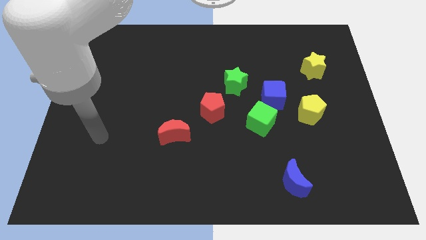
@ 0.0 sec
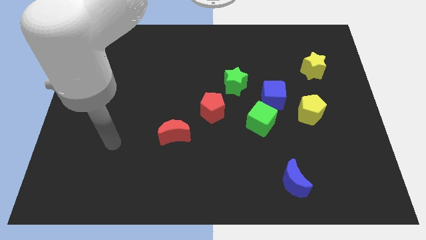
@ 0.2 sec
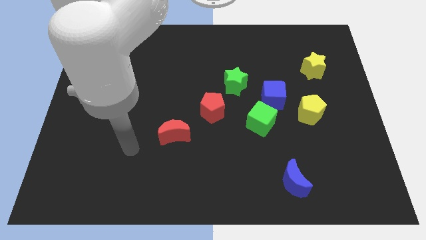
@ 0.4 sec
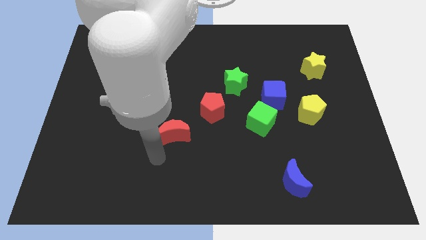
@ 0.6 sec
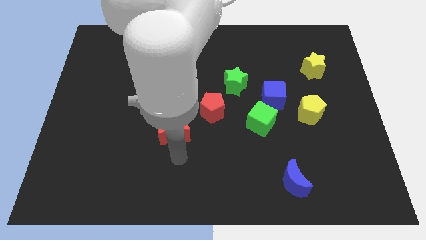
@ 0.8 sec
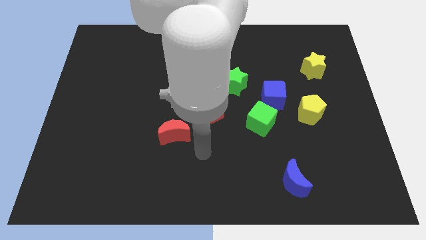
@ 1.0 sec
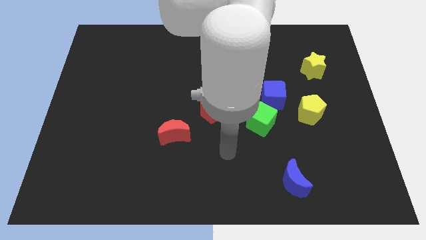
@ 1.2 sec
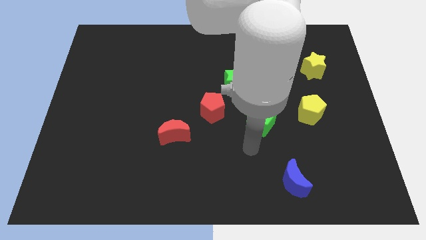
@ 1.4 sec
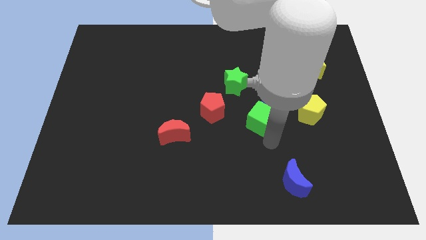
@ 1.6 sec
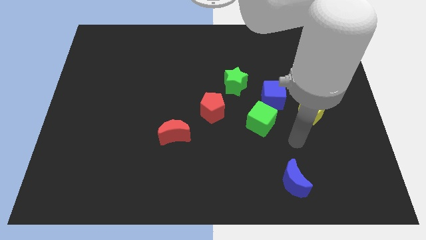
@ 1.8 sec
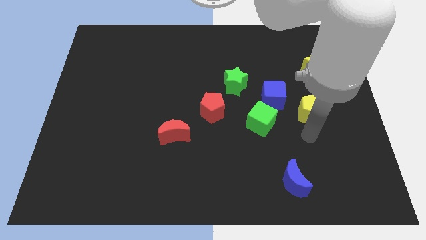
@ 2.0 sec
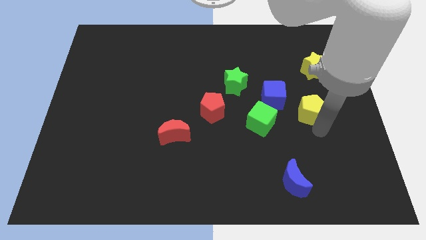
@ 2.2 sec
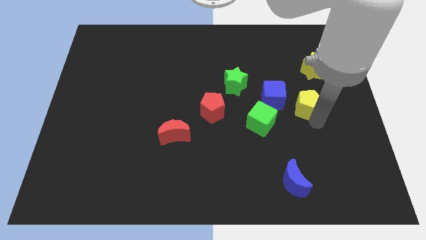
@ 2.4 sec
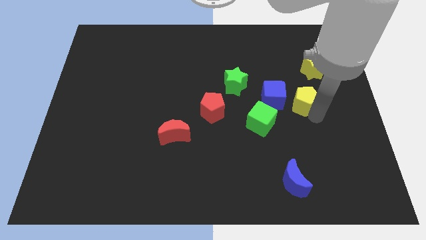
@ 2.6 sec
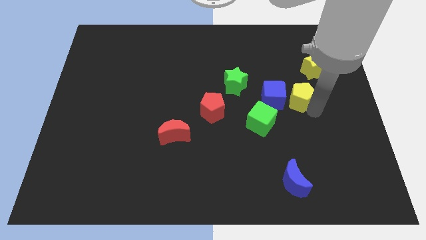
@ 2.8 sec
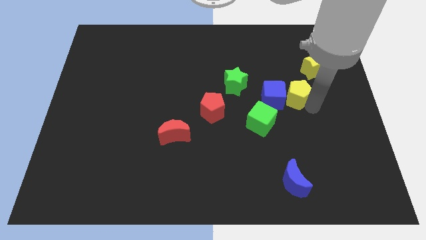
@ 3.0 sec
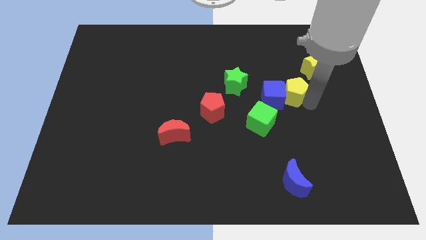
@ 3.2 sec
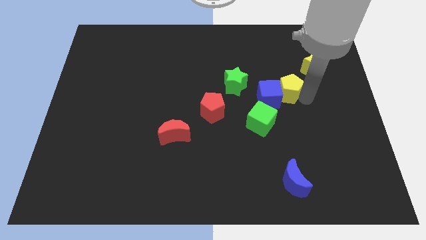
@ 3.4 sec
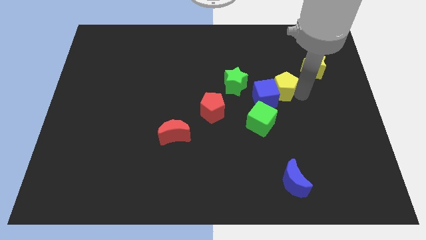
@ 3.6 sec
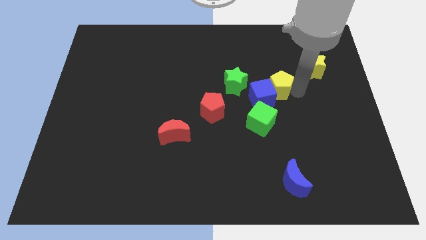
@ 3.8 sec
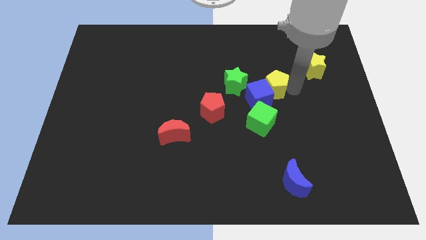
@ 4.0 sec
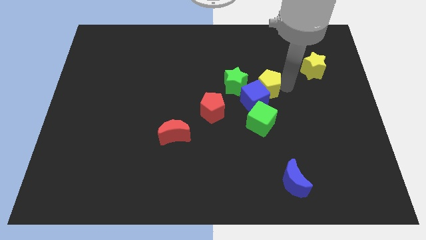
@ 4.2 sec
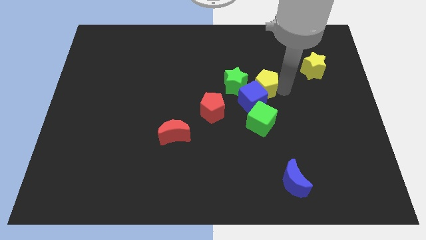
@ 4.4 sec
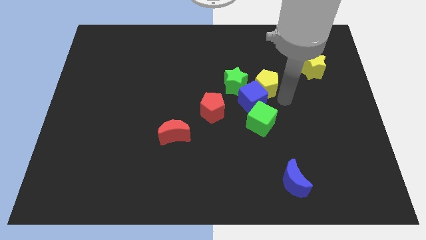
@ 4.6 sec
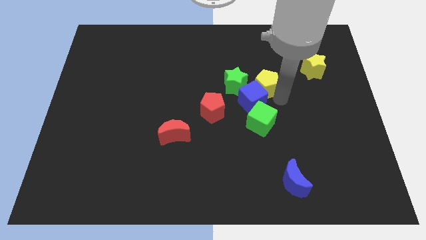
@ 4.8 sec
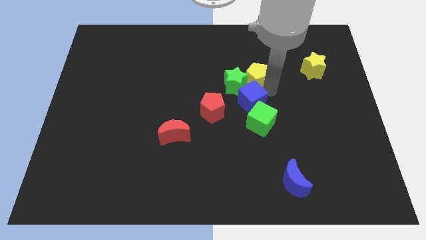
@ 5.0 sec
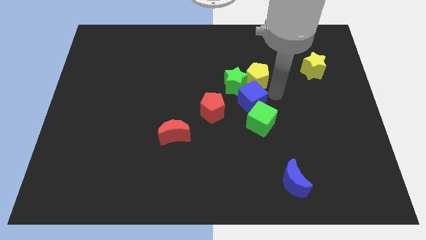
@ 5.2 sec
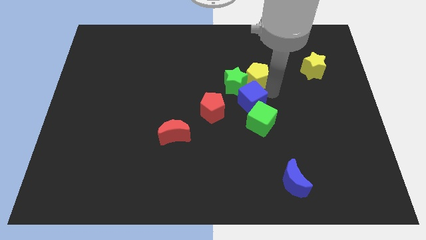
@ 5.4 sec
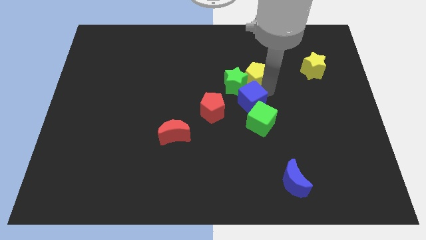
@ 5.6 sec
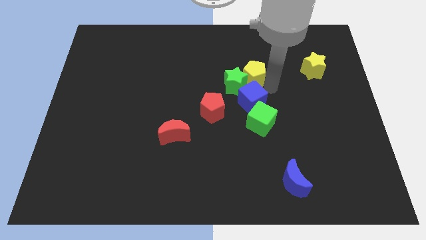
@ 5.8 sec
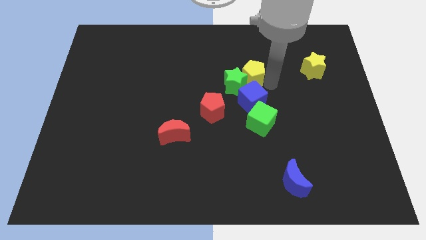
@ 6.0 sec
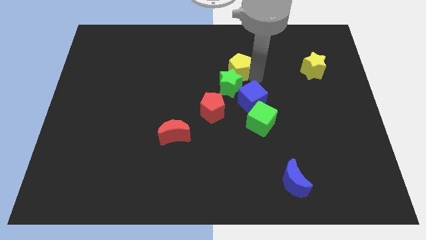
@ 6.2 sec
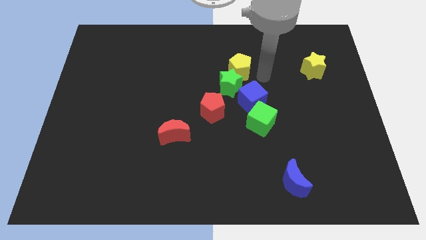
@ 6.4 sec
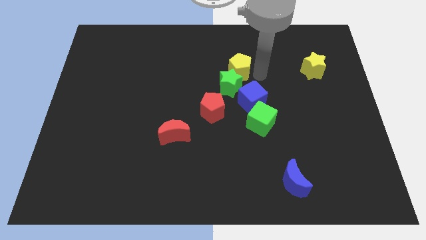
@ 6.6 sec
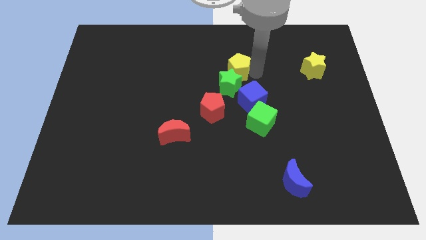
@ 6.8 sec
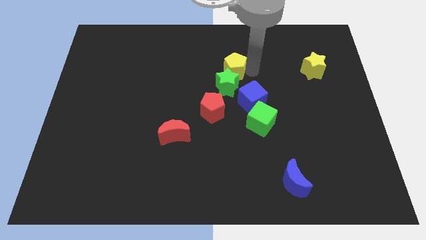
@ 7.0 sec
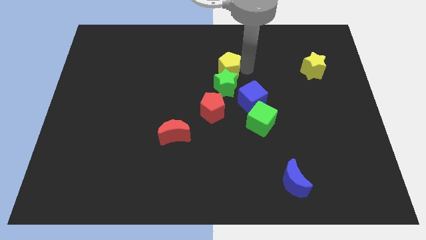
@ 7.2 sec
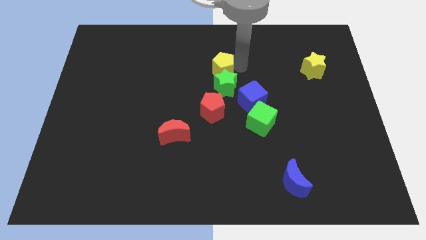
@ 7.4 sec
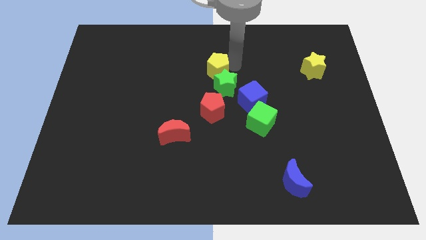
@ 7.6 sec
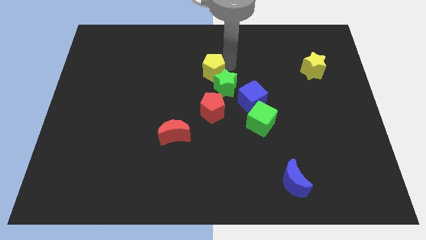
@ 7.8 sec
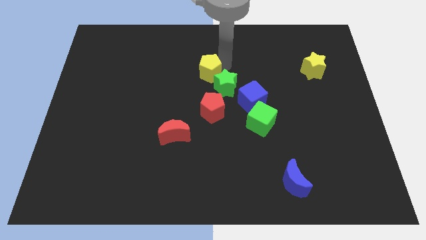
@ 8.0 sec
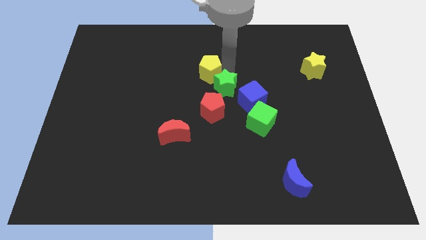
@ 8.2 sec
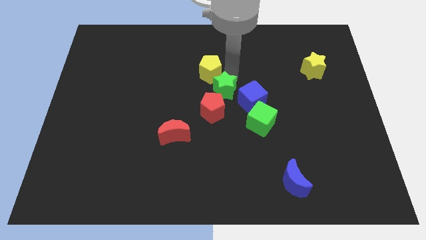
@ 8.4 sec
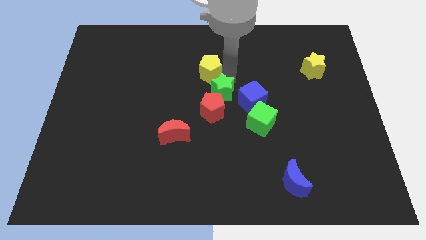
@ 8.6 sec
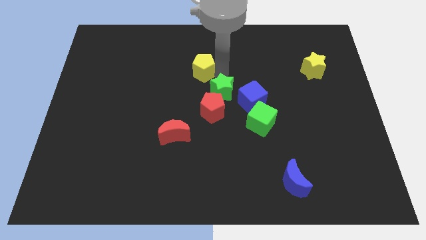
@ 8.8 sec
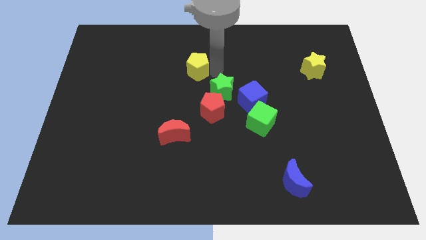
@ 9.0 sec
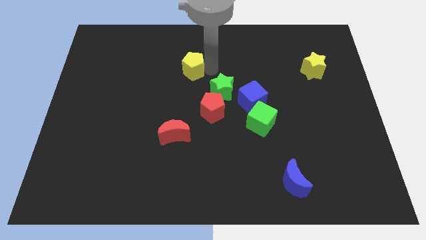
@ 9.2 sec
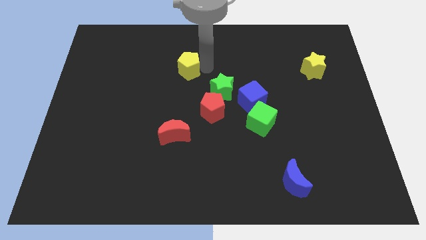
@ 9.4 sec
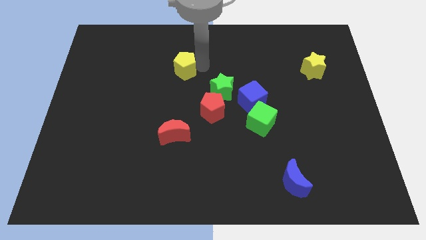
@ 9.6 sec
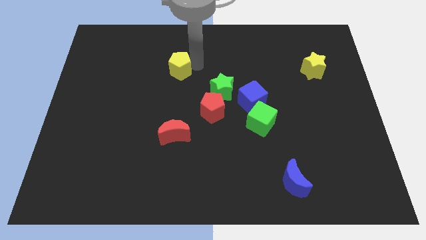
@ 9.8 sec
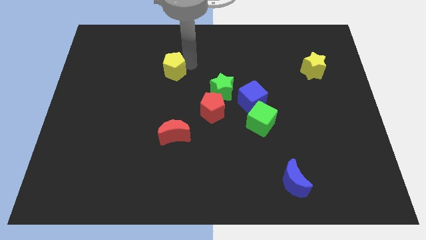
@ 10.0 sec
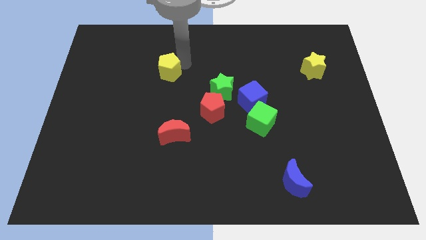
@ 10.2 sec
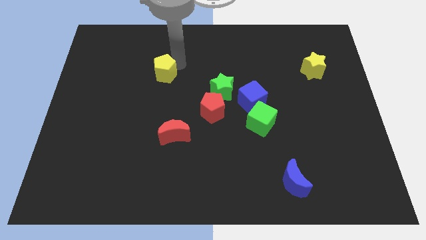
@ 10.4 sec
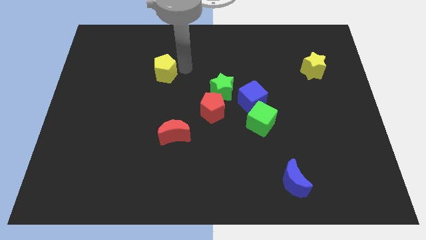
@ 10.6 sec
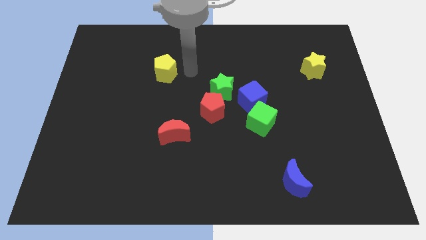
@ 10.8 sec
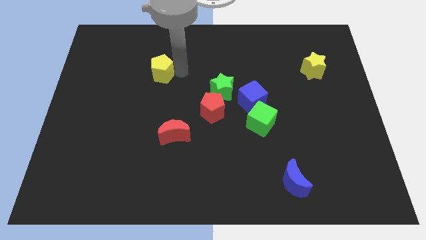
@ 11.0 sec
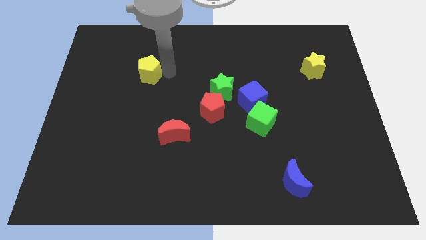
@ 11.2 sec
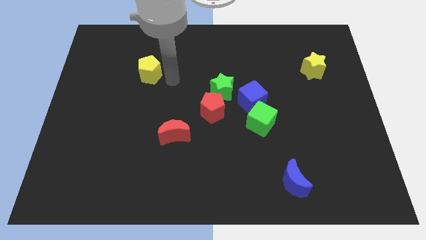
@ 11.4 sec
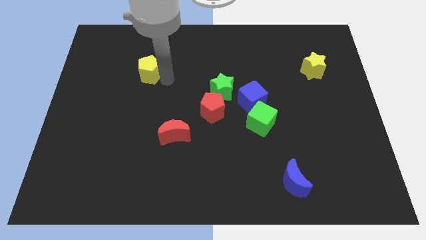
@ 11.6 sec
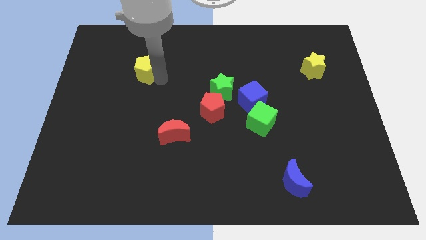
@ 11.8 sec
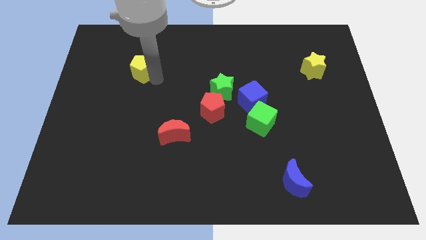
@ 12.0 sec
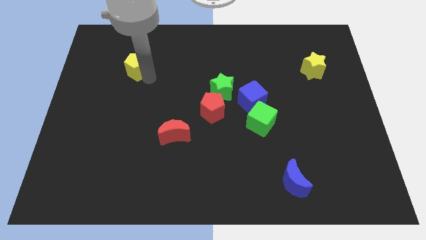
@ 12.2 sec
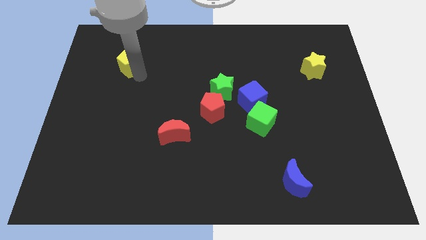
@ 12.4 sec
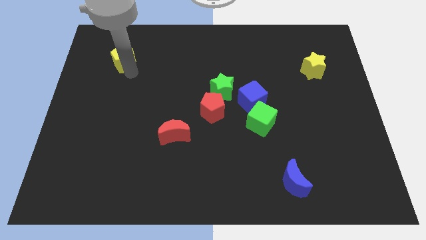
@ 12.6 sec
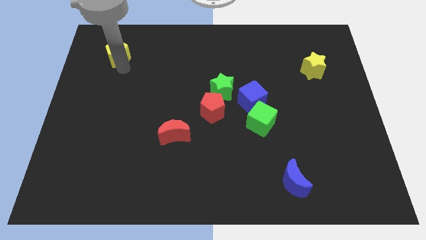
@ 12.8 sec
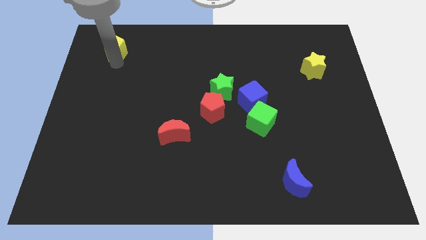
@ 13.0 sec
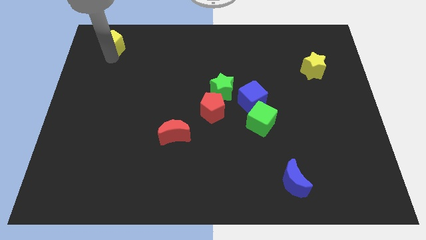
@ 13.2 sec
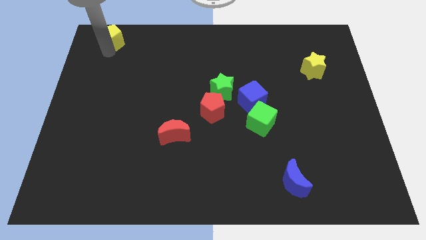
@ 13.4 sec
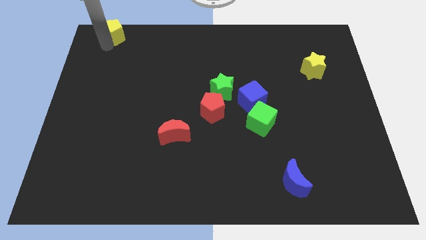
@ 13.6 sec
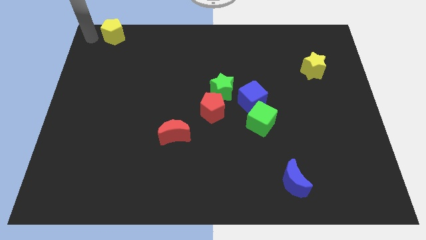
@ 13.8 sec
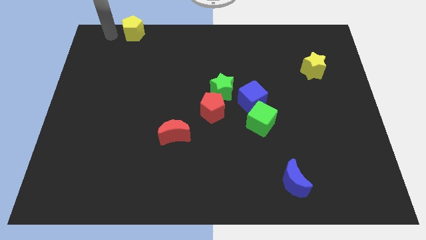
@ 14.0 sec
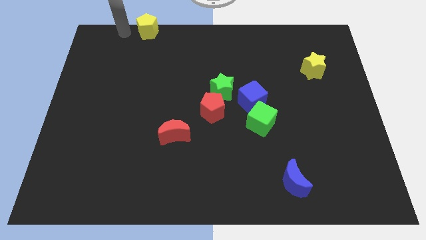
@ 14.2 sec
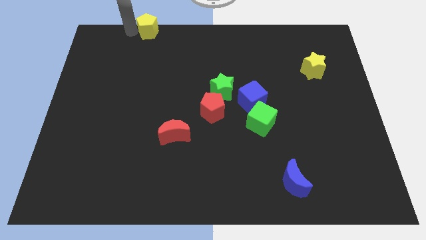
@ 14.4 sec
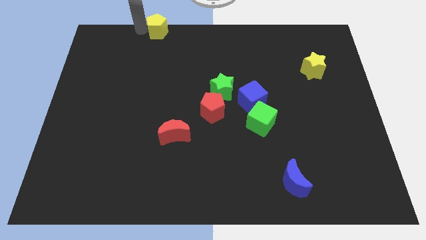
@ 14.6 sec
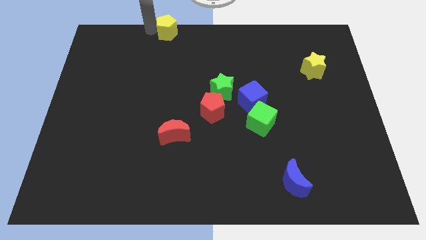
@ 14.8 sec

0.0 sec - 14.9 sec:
put the yellow pentagon to the towards your base
